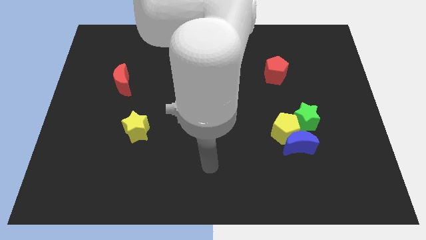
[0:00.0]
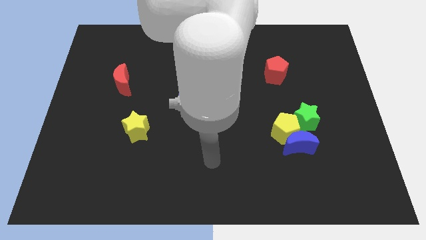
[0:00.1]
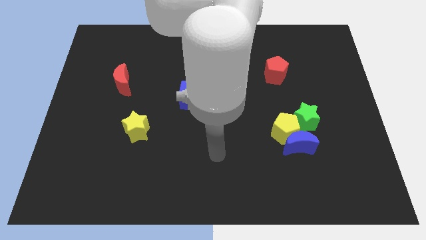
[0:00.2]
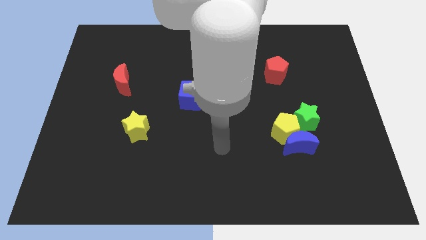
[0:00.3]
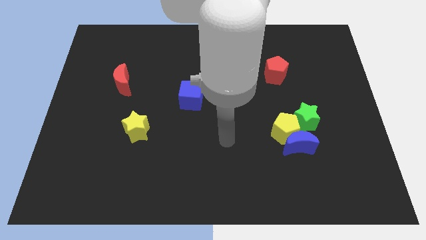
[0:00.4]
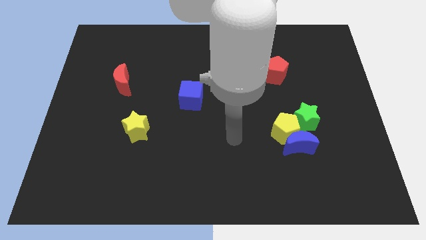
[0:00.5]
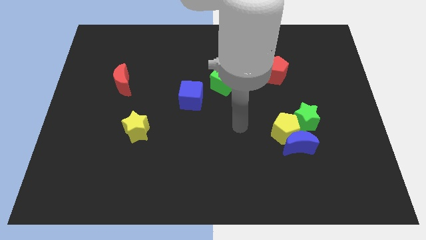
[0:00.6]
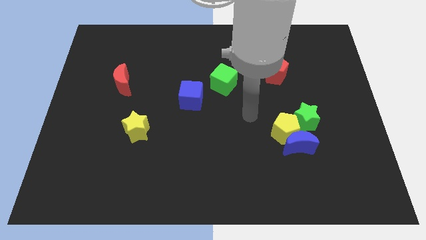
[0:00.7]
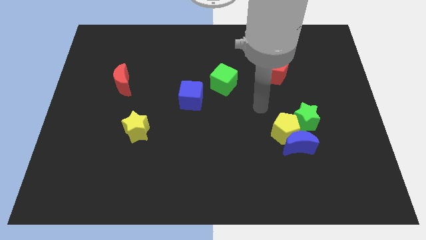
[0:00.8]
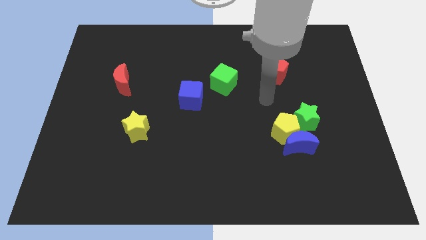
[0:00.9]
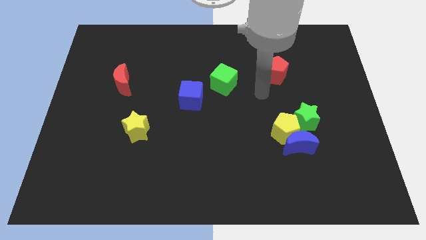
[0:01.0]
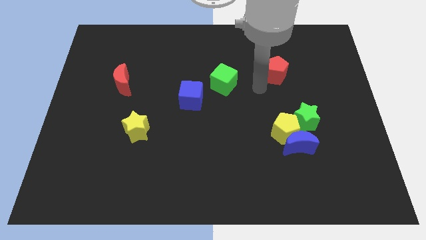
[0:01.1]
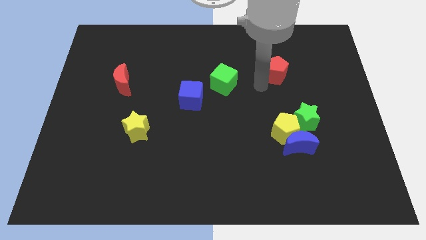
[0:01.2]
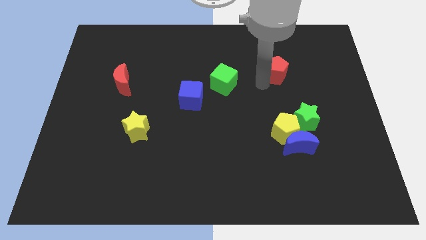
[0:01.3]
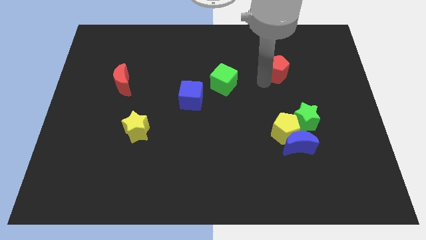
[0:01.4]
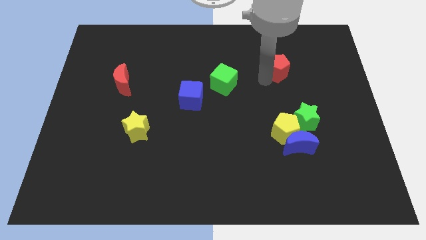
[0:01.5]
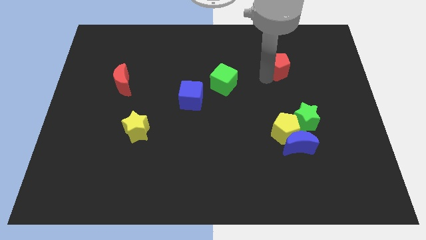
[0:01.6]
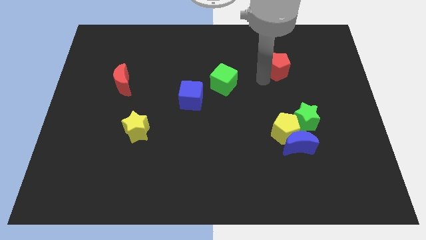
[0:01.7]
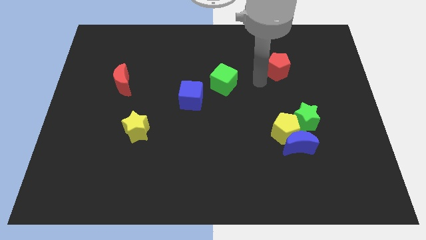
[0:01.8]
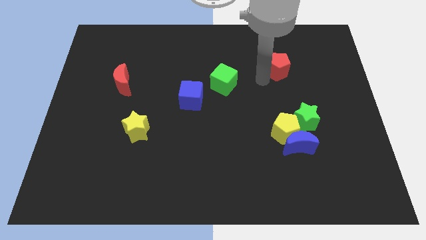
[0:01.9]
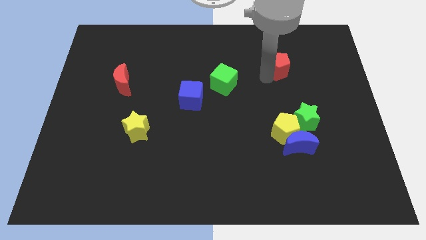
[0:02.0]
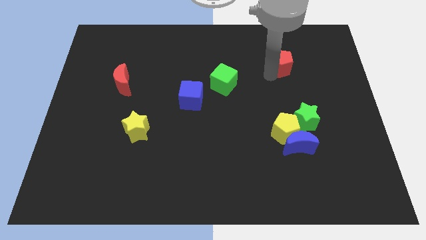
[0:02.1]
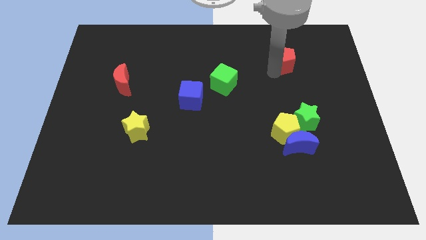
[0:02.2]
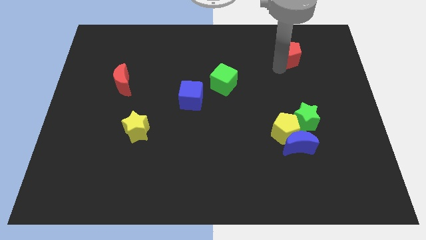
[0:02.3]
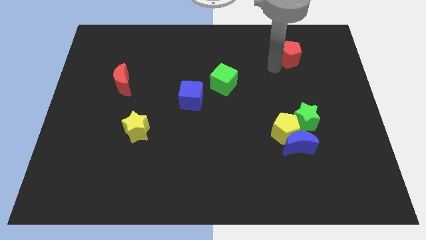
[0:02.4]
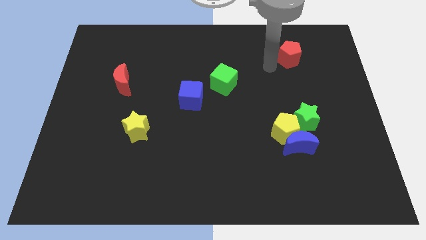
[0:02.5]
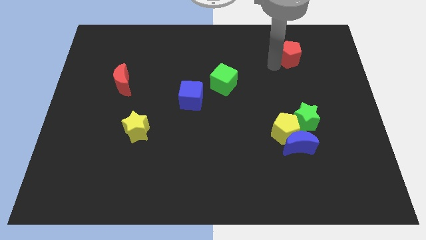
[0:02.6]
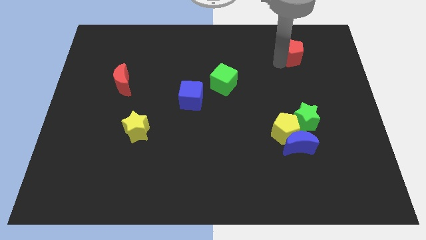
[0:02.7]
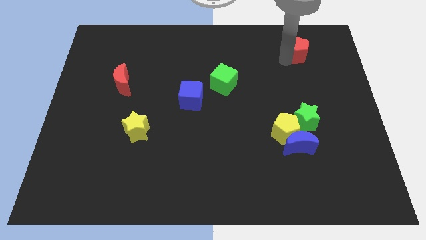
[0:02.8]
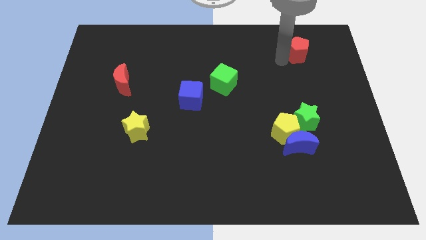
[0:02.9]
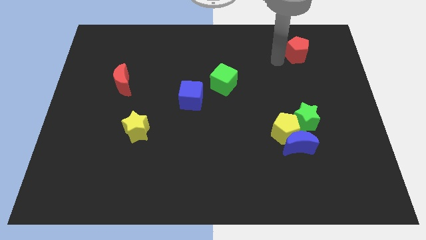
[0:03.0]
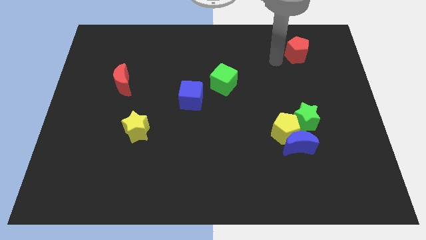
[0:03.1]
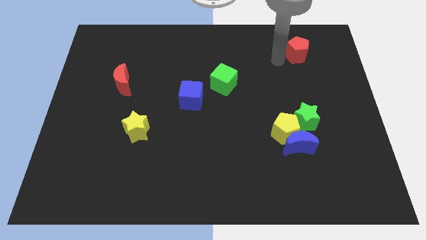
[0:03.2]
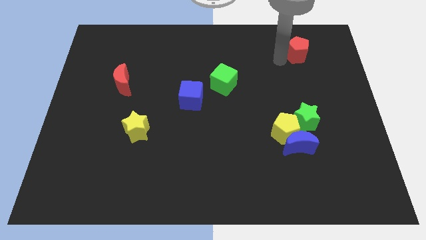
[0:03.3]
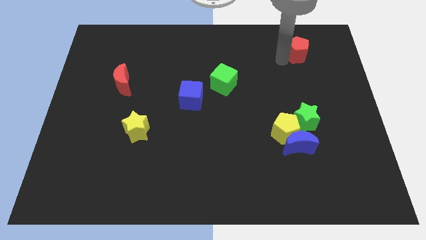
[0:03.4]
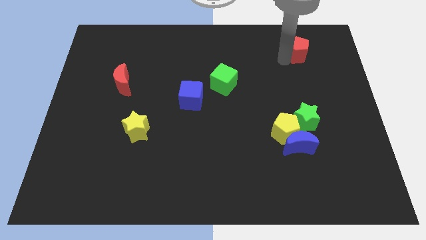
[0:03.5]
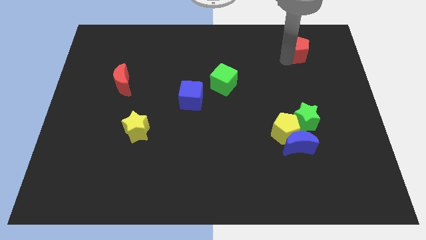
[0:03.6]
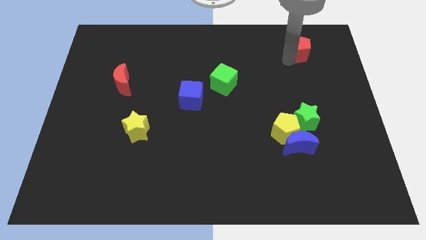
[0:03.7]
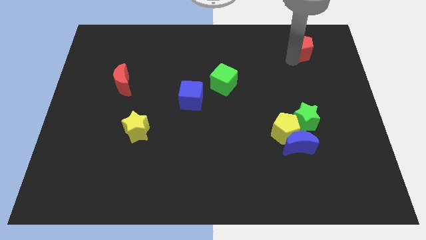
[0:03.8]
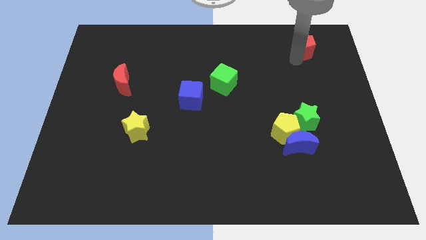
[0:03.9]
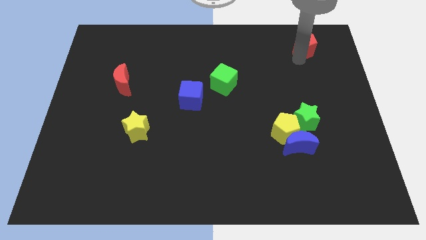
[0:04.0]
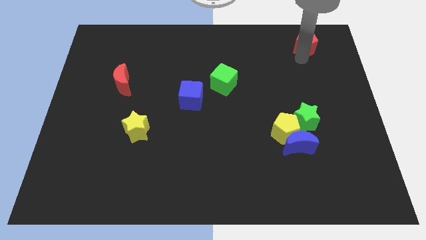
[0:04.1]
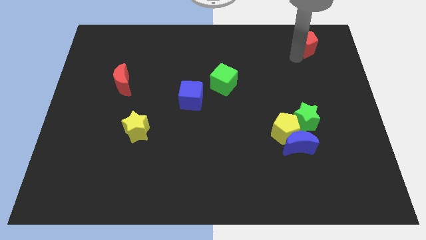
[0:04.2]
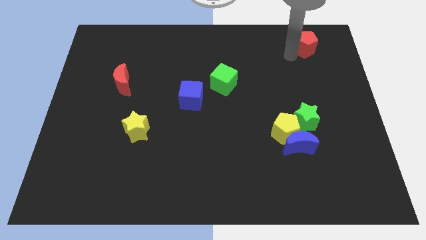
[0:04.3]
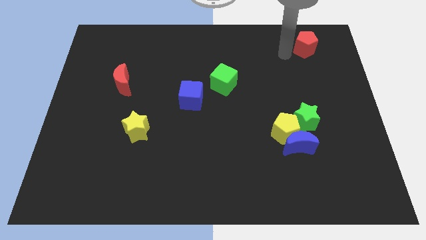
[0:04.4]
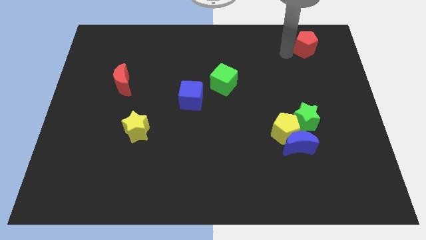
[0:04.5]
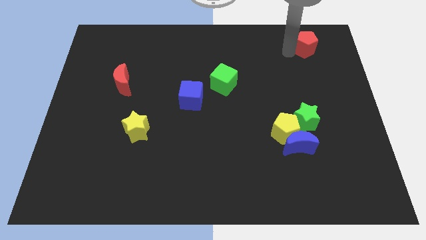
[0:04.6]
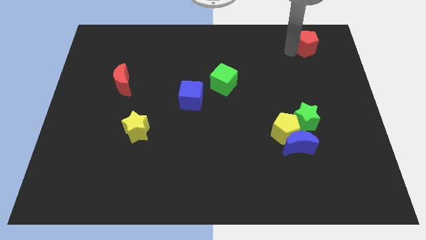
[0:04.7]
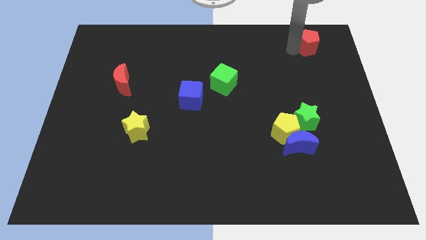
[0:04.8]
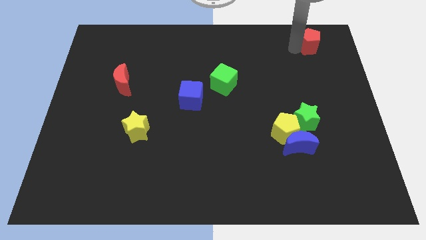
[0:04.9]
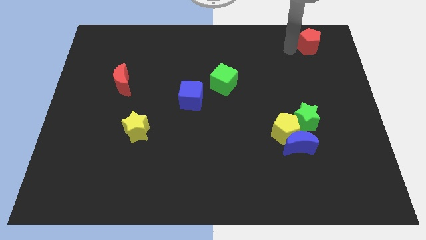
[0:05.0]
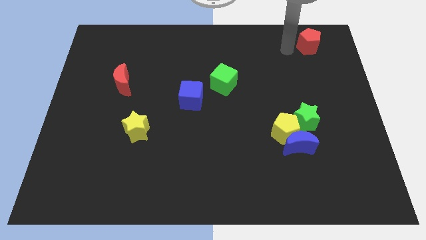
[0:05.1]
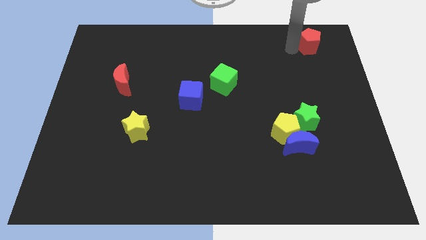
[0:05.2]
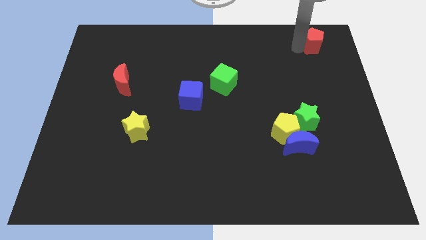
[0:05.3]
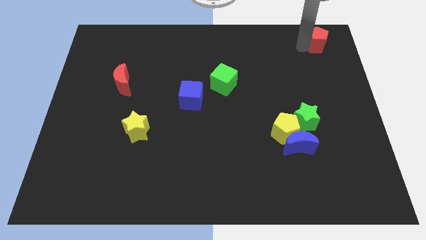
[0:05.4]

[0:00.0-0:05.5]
push the red pentagon to the top right corner
